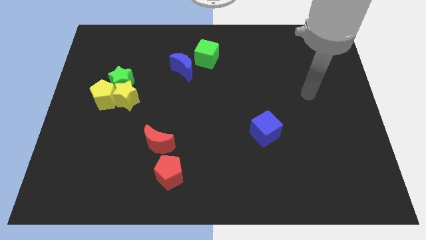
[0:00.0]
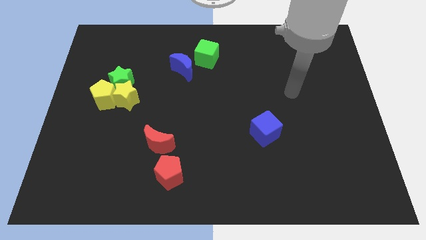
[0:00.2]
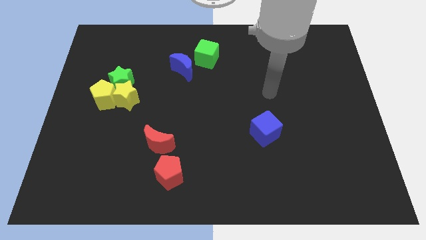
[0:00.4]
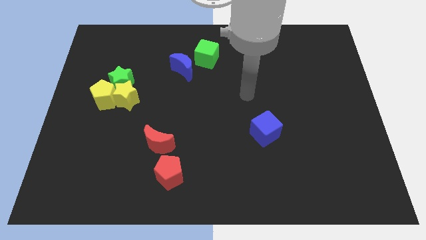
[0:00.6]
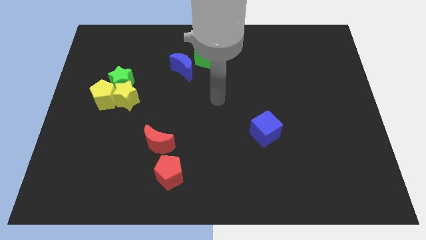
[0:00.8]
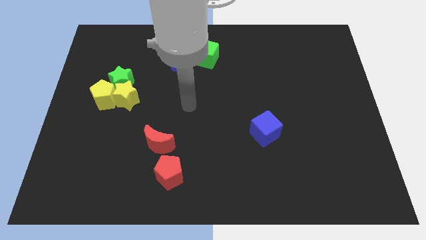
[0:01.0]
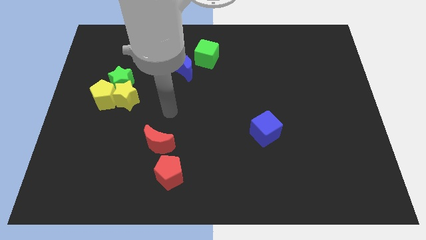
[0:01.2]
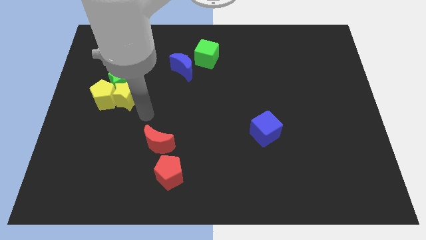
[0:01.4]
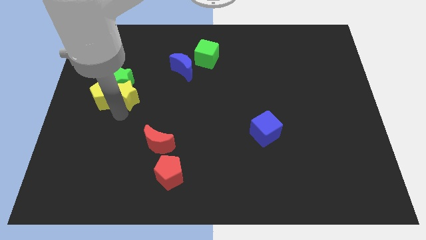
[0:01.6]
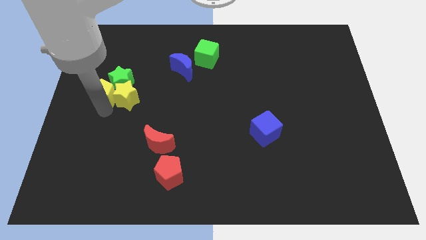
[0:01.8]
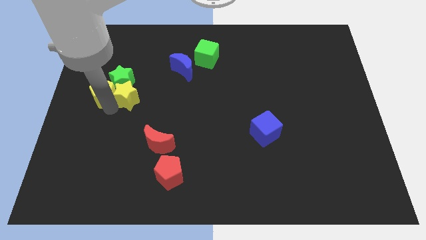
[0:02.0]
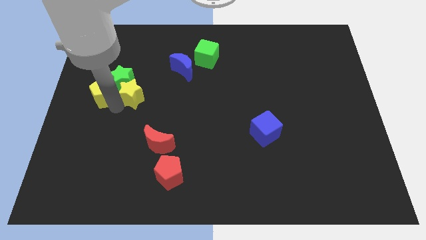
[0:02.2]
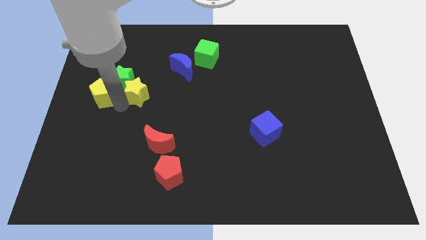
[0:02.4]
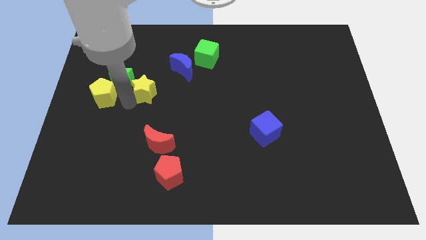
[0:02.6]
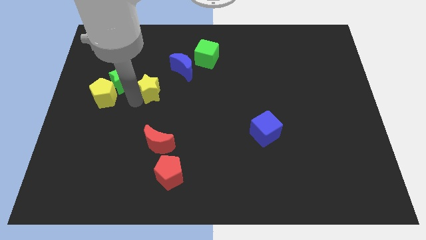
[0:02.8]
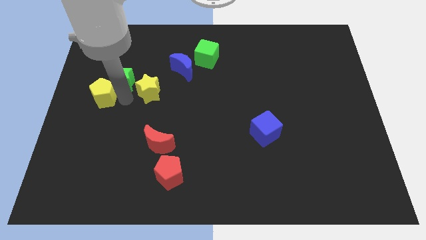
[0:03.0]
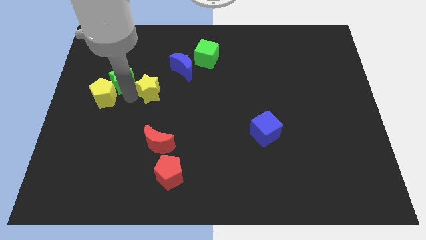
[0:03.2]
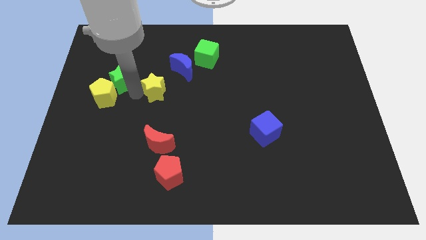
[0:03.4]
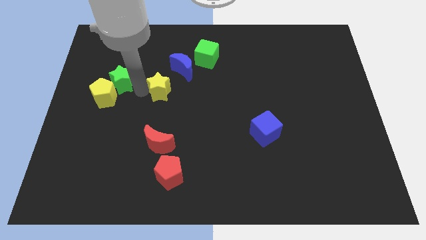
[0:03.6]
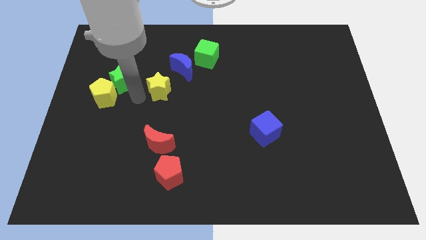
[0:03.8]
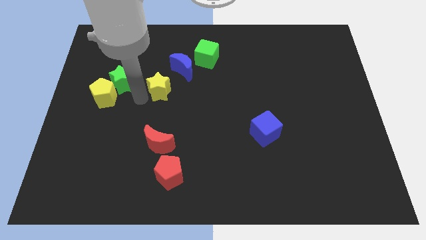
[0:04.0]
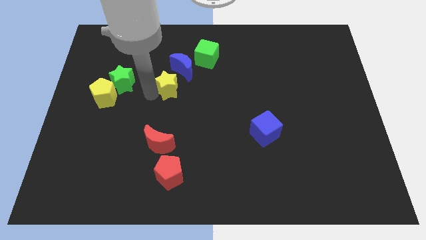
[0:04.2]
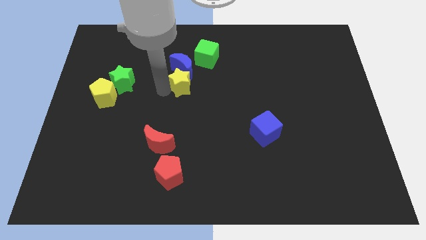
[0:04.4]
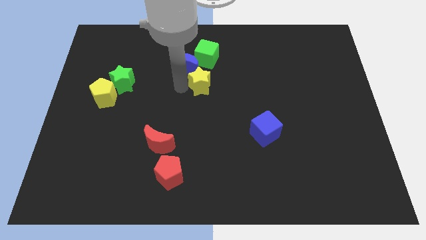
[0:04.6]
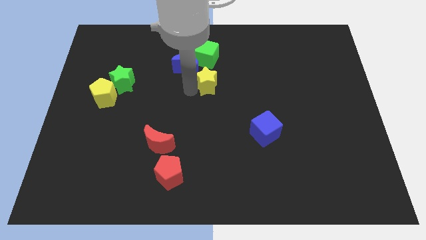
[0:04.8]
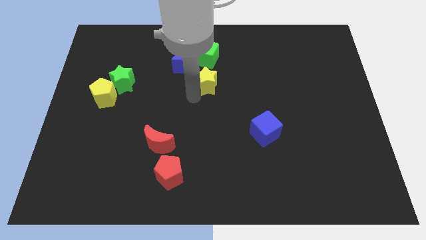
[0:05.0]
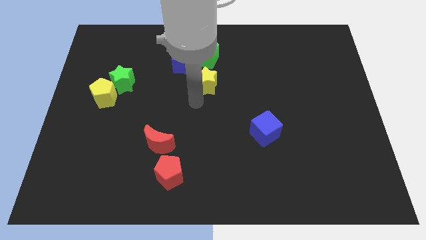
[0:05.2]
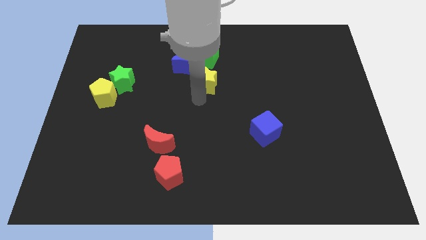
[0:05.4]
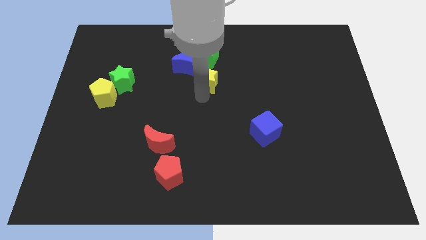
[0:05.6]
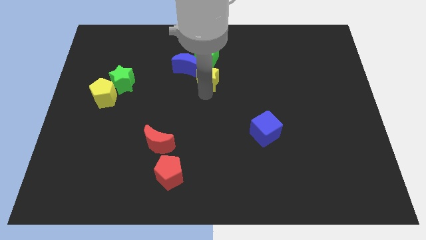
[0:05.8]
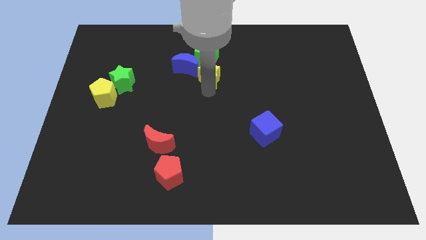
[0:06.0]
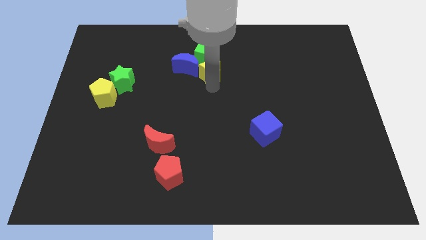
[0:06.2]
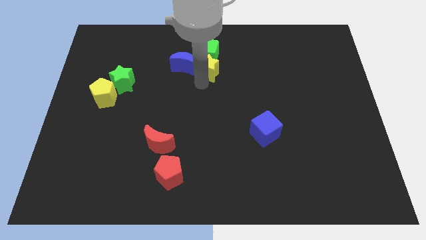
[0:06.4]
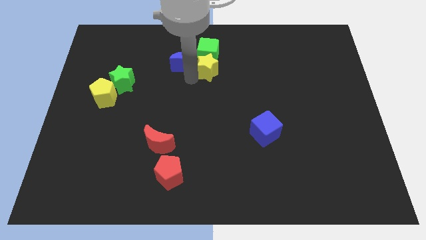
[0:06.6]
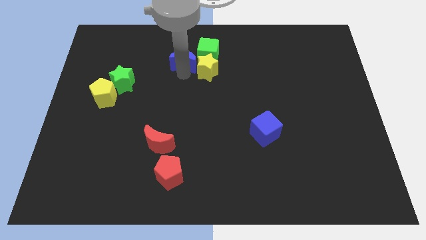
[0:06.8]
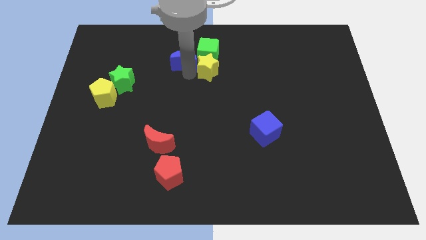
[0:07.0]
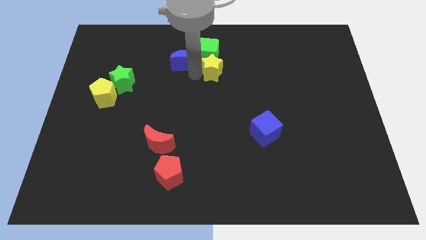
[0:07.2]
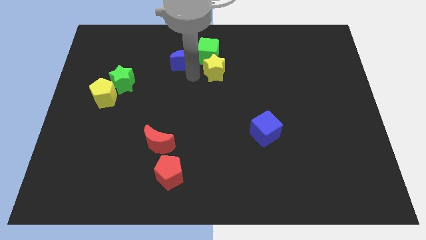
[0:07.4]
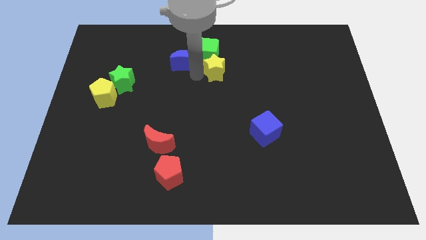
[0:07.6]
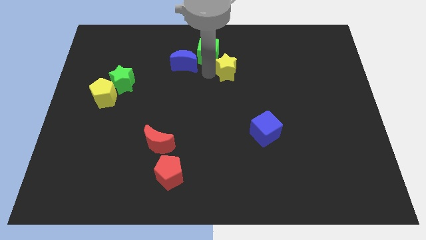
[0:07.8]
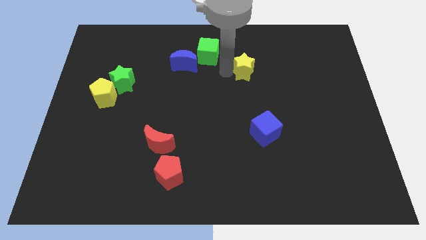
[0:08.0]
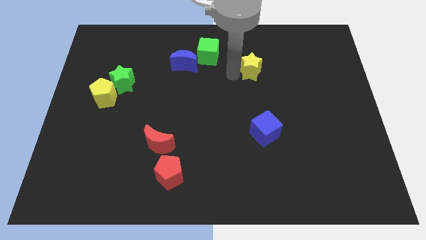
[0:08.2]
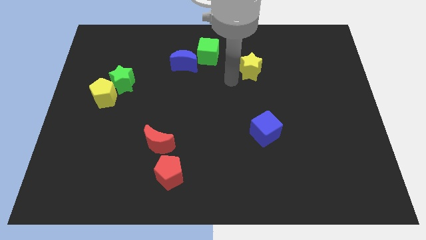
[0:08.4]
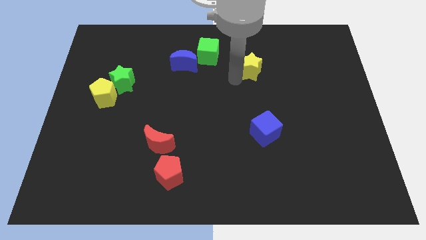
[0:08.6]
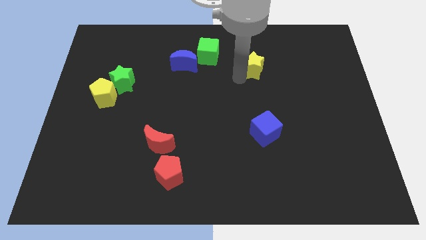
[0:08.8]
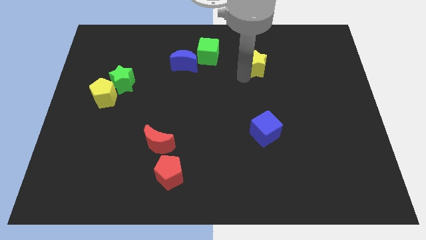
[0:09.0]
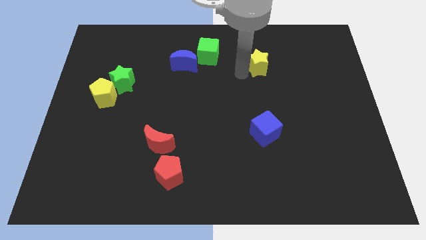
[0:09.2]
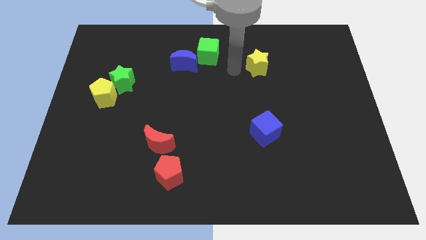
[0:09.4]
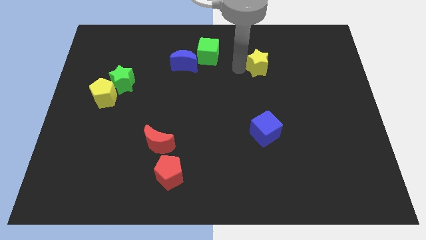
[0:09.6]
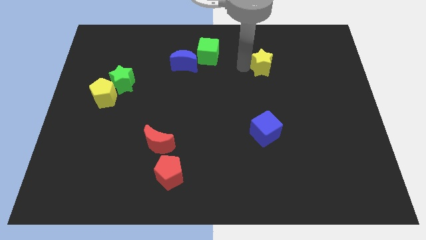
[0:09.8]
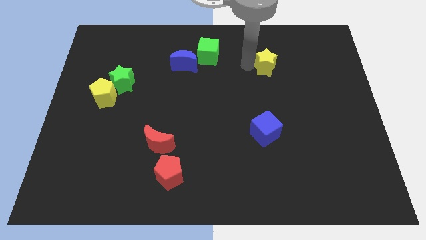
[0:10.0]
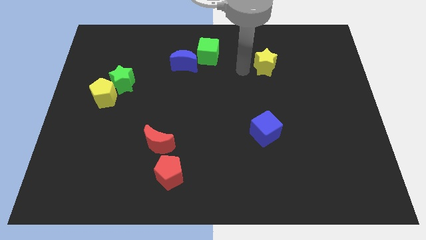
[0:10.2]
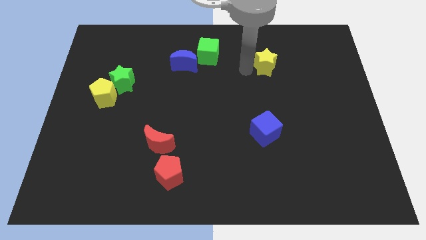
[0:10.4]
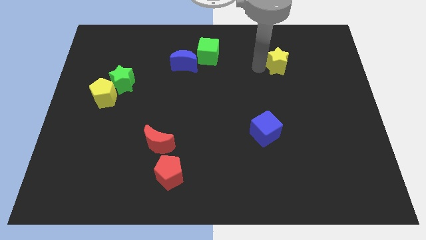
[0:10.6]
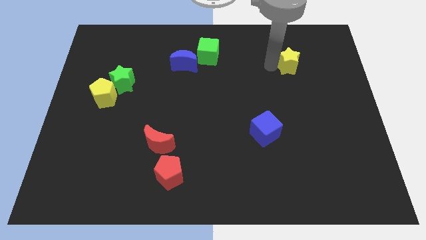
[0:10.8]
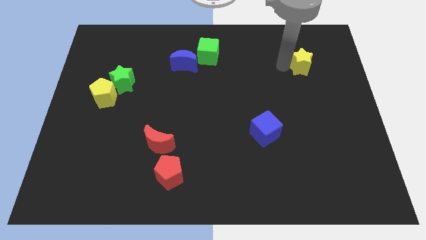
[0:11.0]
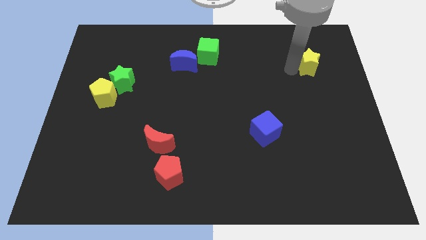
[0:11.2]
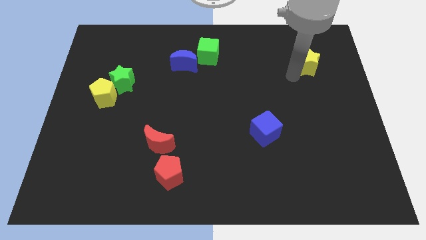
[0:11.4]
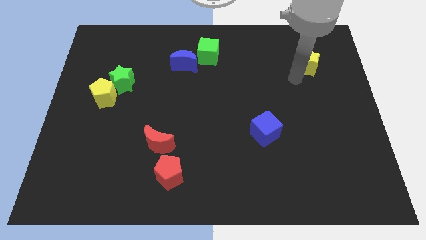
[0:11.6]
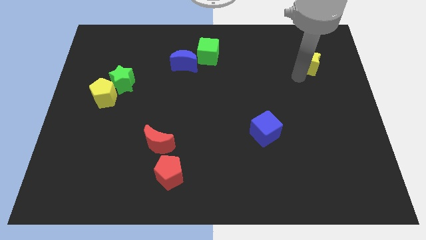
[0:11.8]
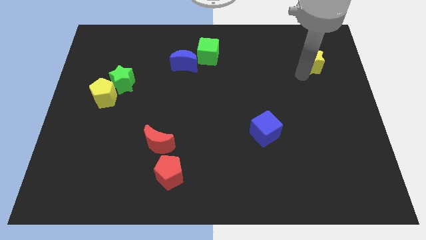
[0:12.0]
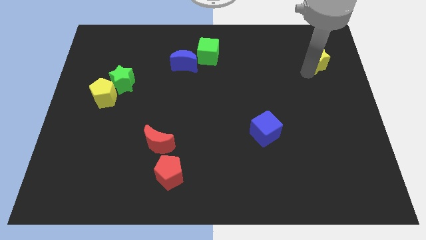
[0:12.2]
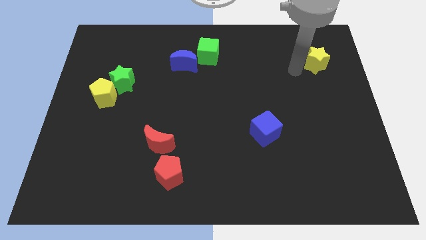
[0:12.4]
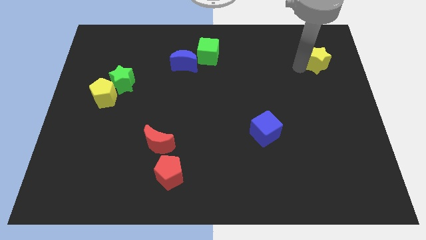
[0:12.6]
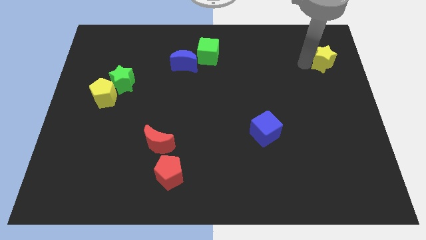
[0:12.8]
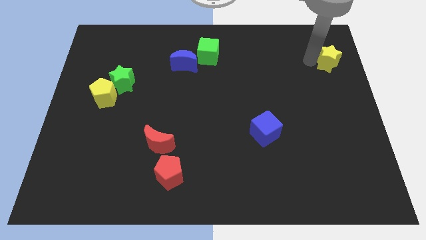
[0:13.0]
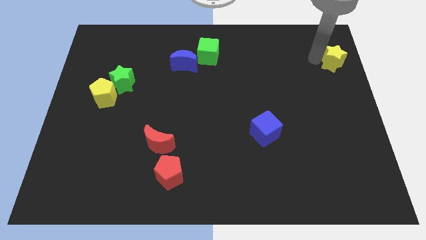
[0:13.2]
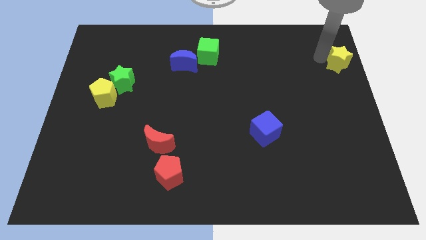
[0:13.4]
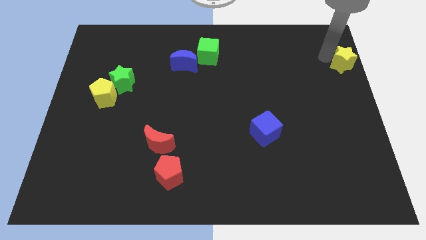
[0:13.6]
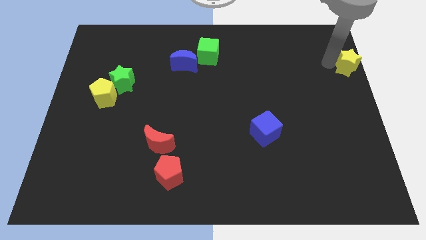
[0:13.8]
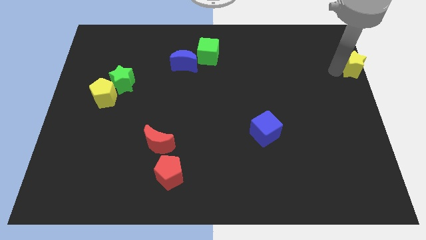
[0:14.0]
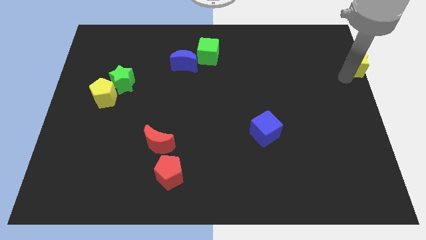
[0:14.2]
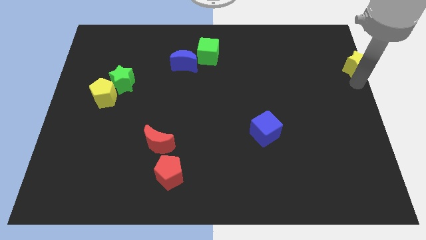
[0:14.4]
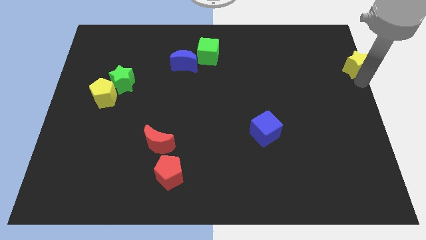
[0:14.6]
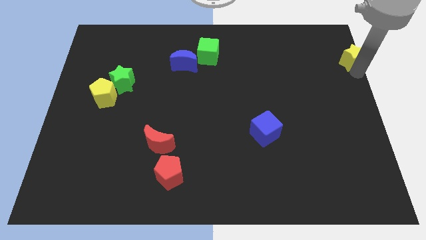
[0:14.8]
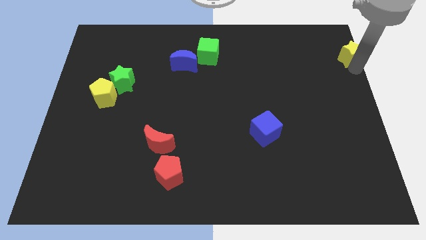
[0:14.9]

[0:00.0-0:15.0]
push the yellow star to the top right
